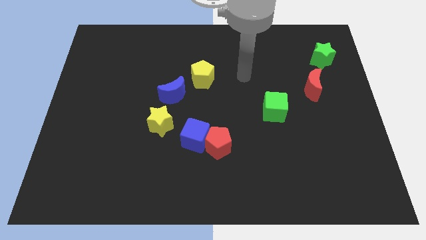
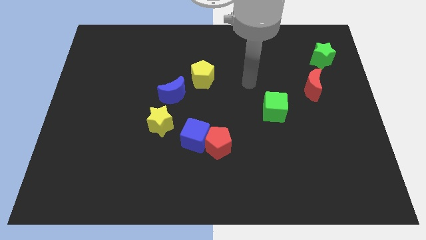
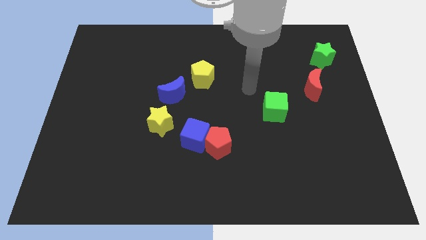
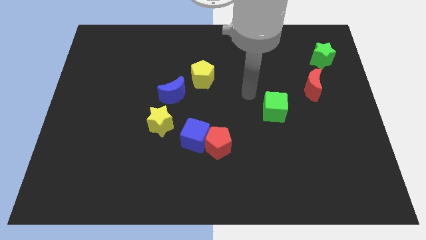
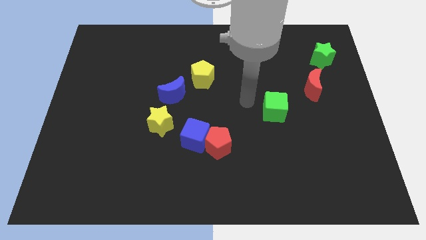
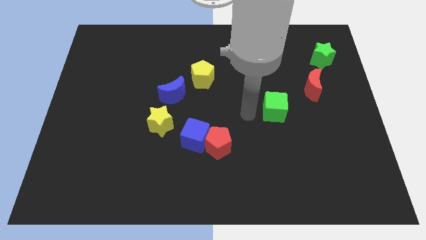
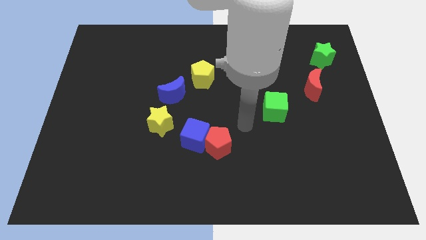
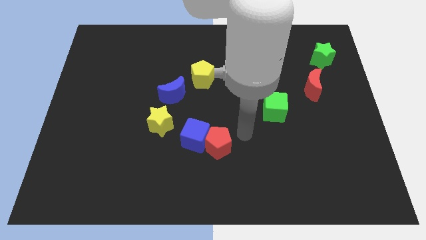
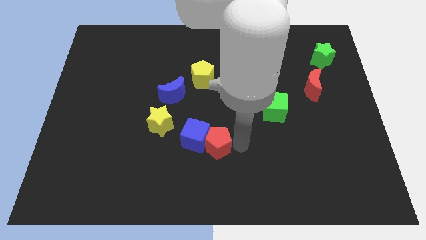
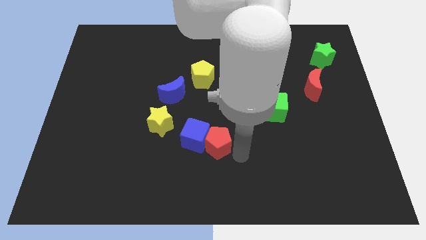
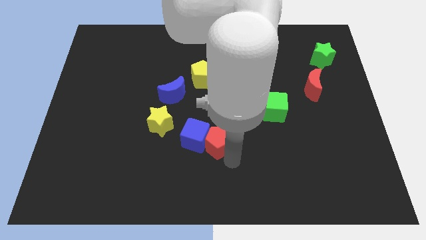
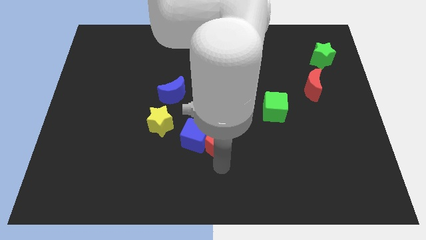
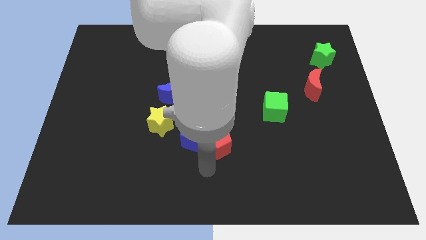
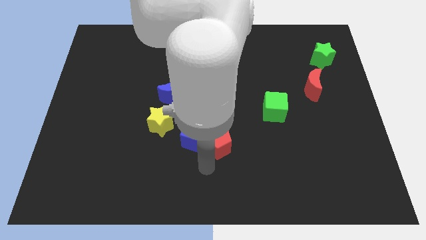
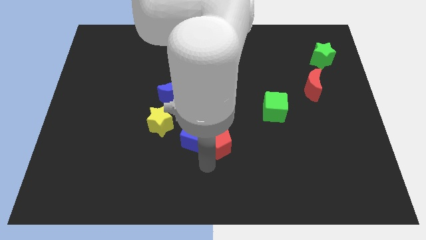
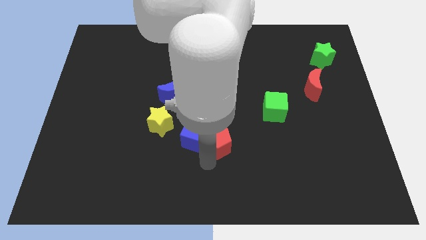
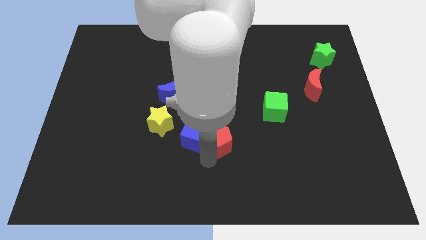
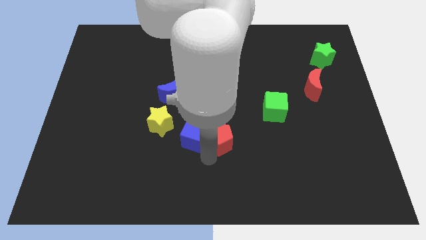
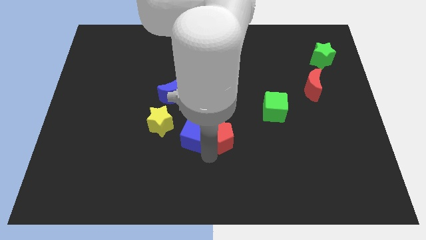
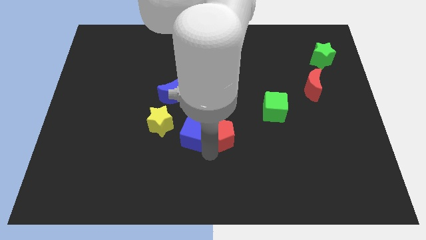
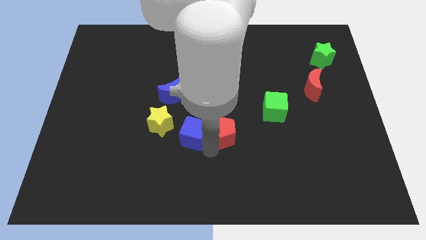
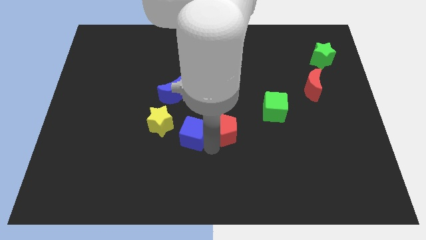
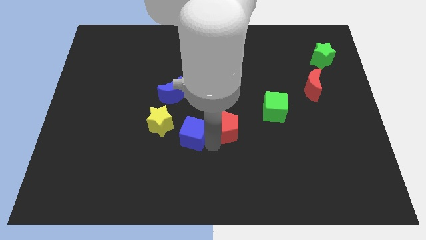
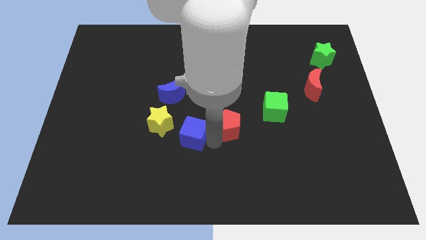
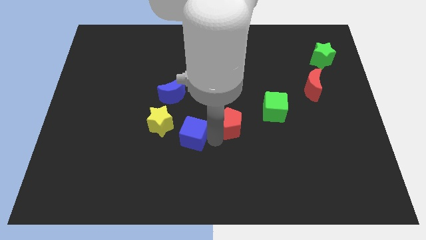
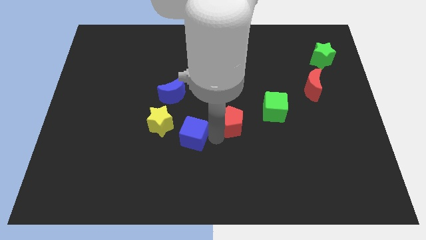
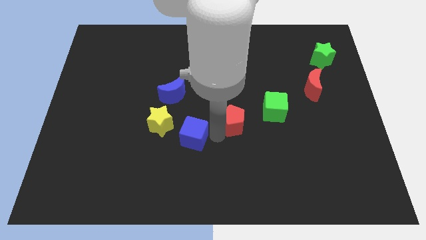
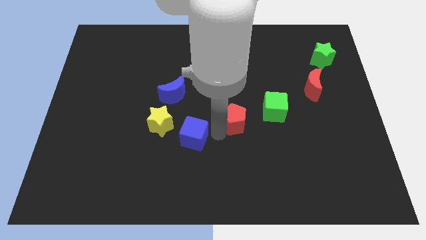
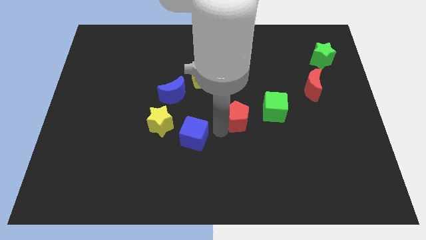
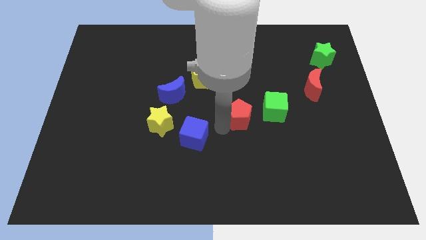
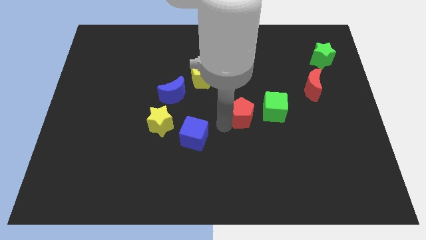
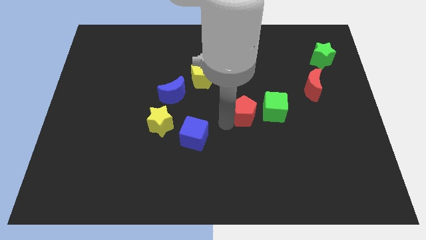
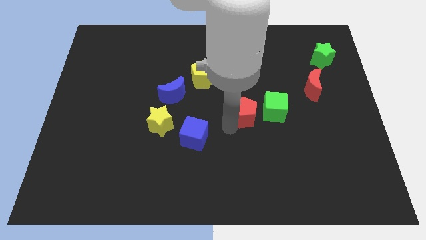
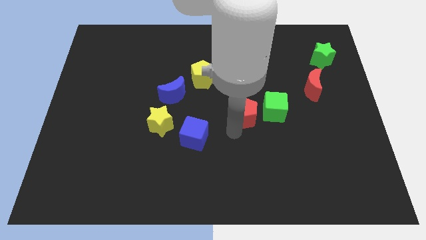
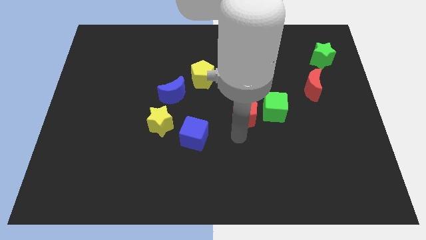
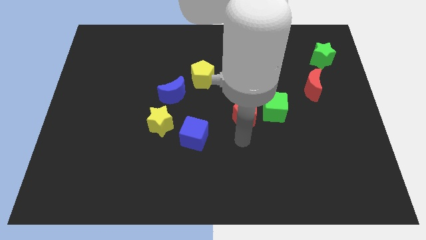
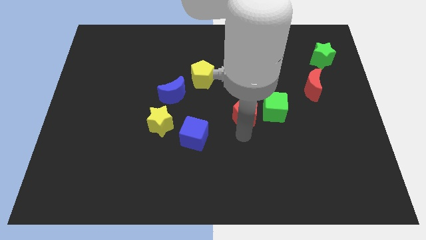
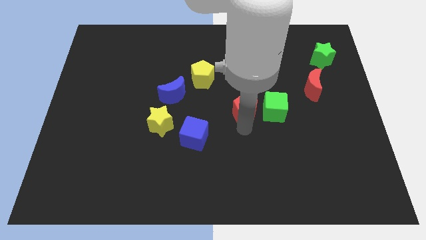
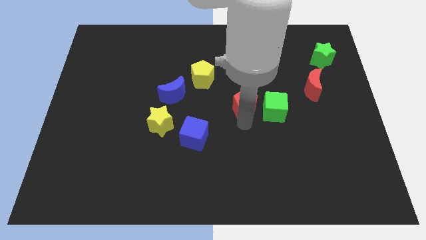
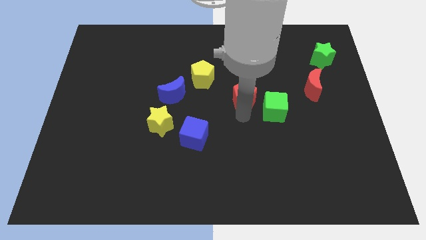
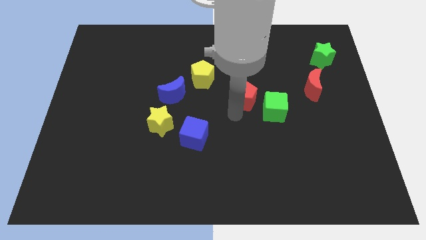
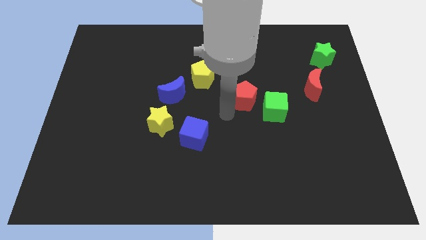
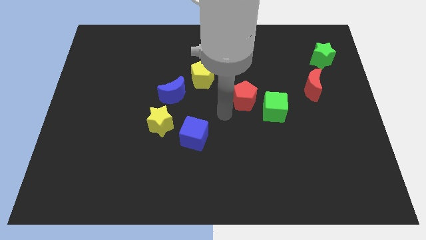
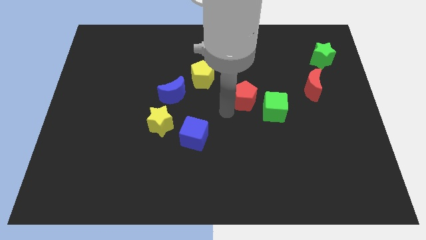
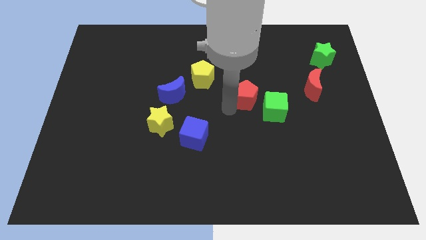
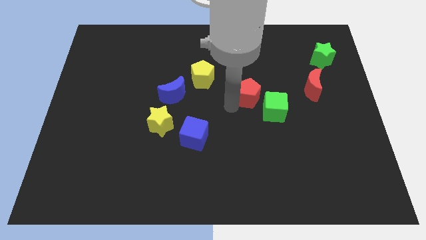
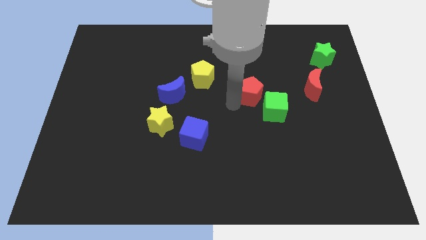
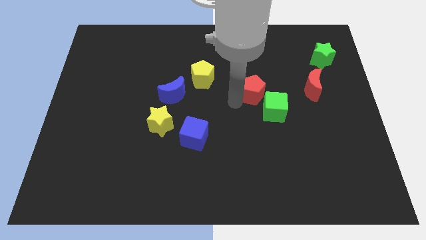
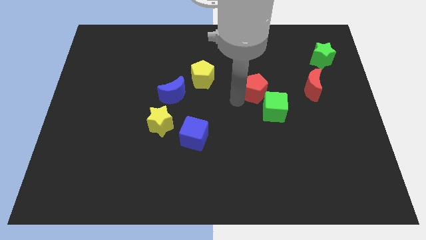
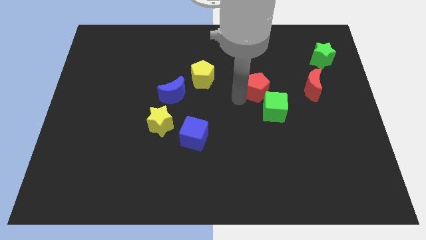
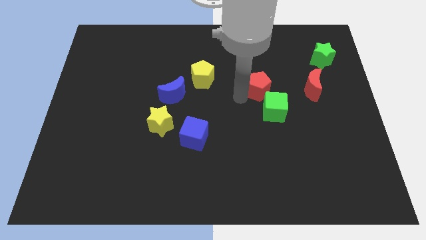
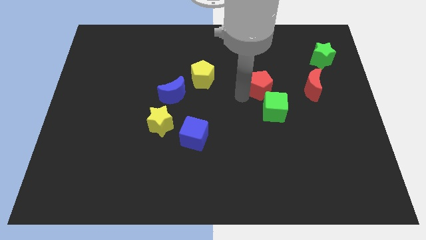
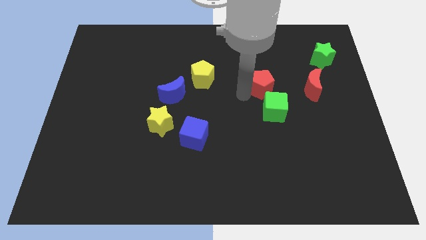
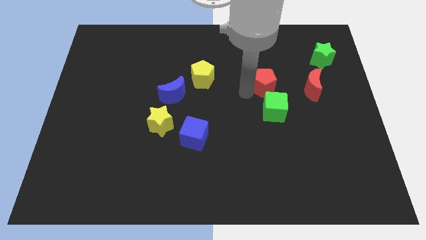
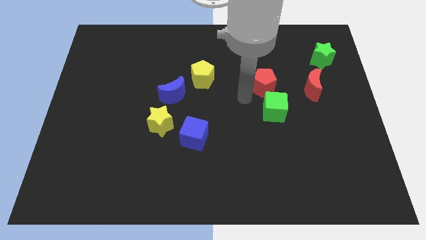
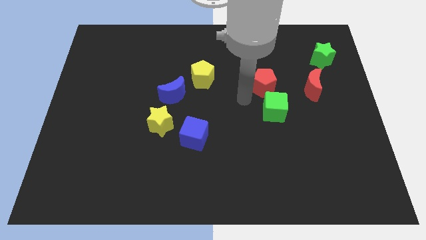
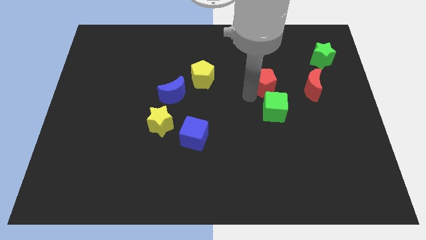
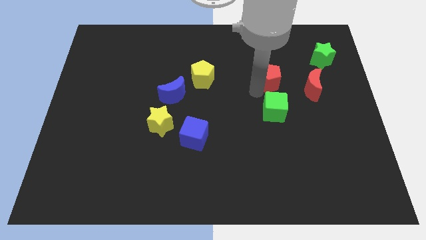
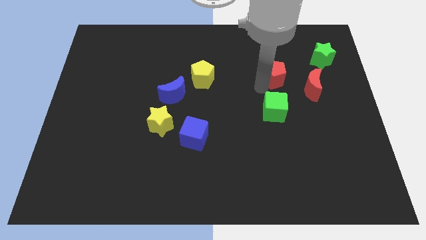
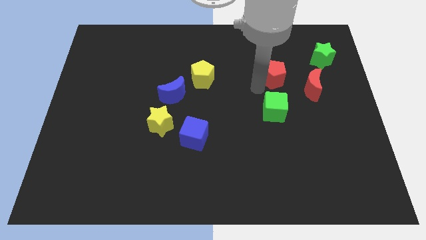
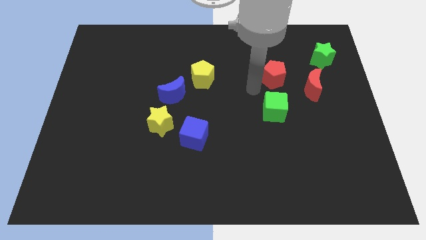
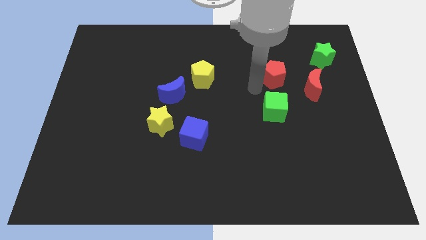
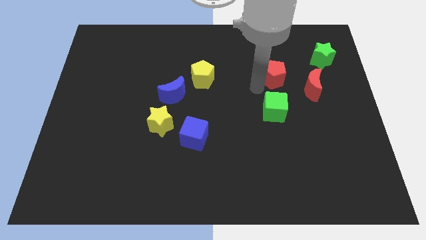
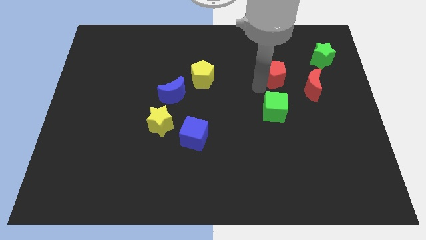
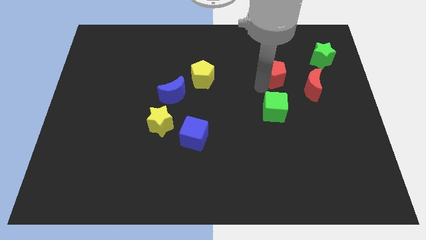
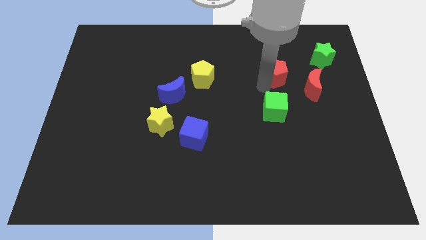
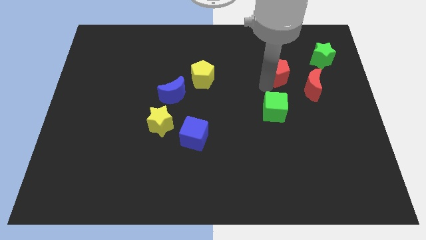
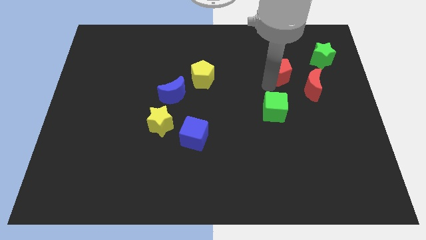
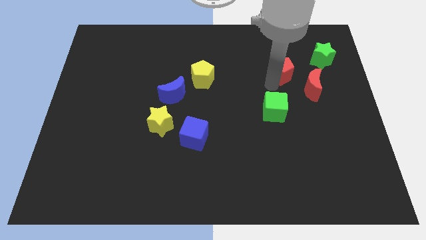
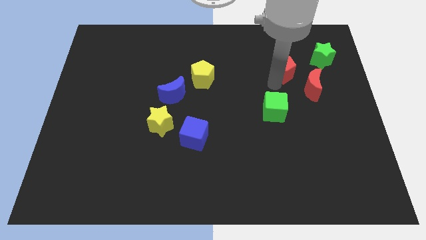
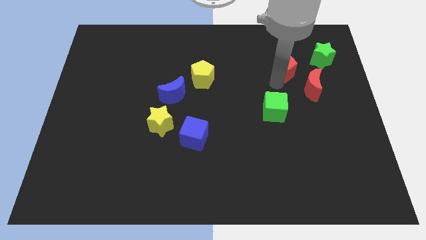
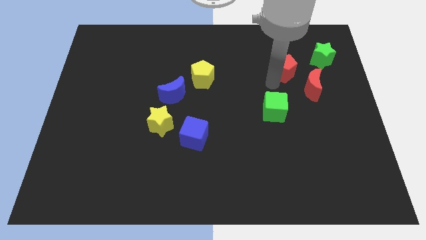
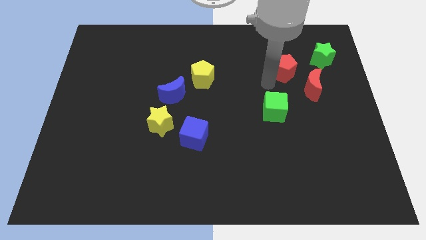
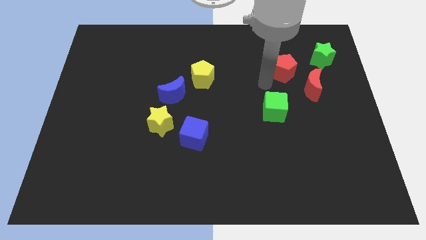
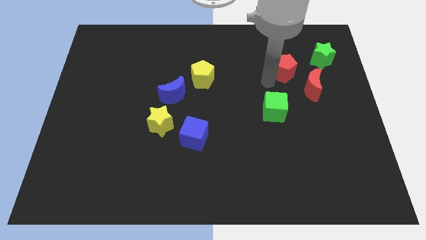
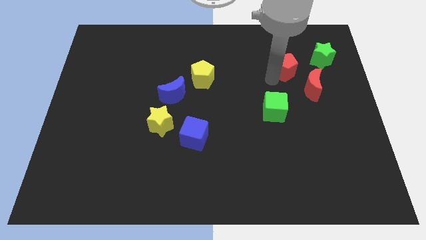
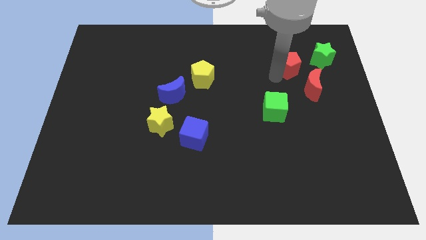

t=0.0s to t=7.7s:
slide the red pentagon to the top of the red moon
